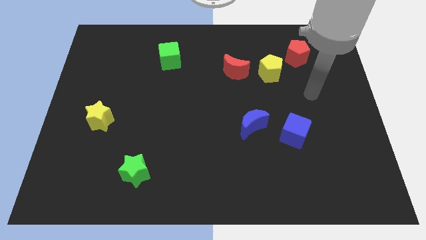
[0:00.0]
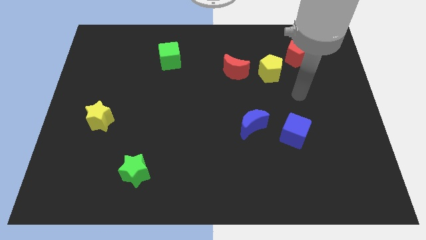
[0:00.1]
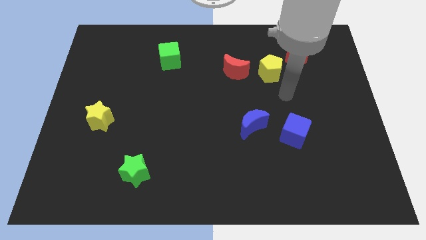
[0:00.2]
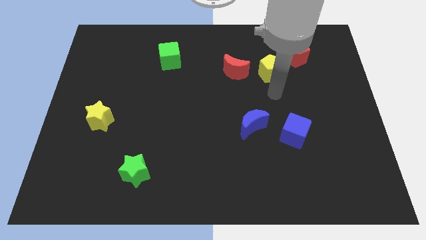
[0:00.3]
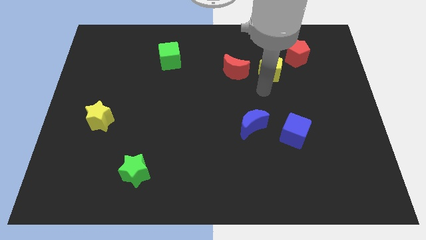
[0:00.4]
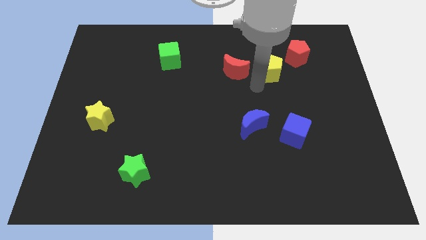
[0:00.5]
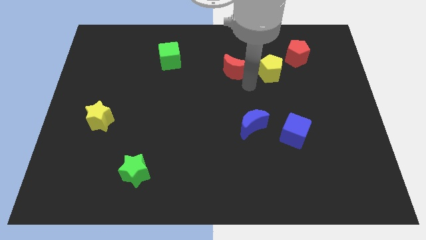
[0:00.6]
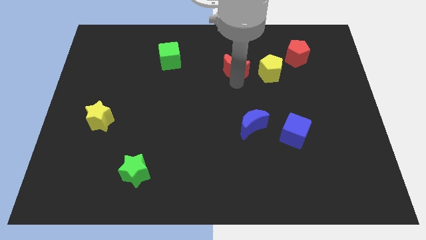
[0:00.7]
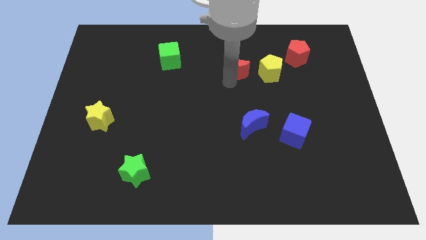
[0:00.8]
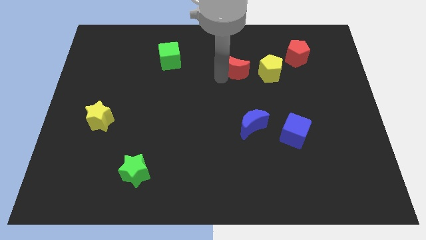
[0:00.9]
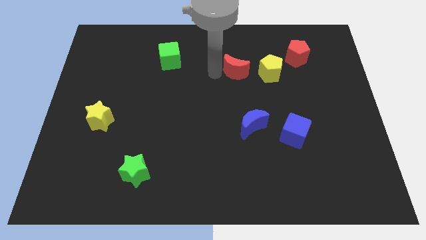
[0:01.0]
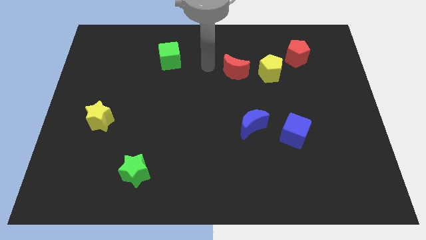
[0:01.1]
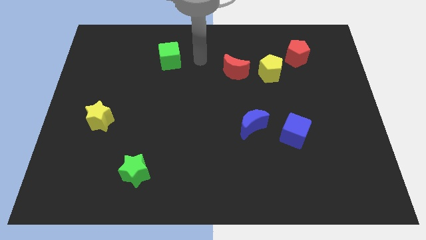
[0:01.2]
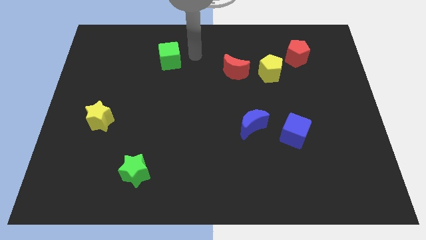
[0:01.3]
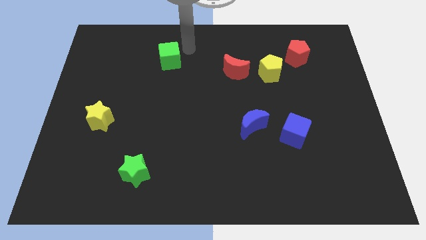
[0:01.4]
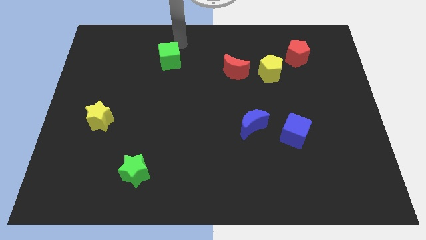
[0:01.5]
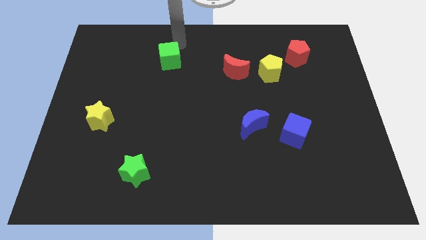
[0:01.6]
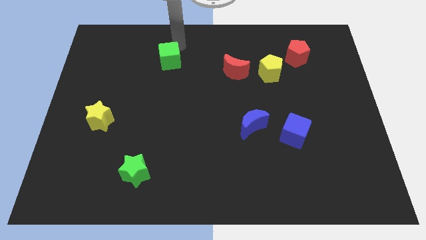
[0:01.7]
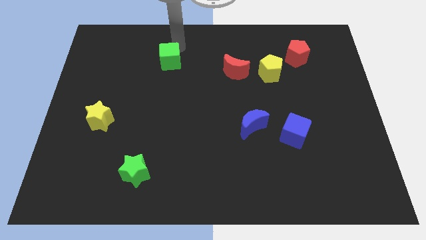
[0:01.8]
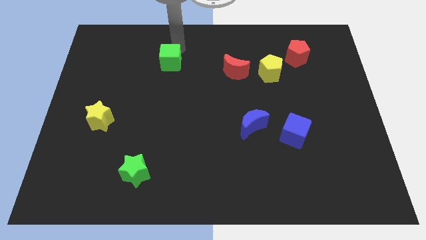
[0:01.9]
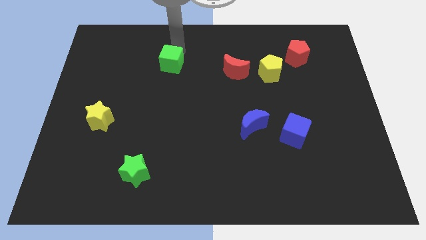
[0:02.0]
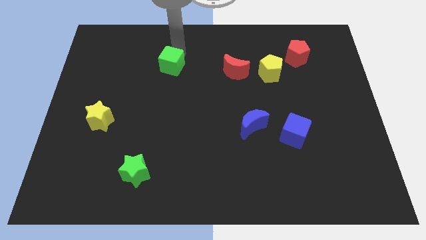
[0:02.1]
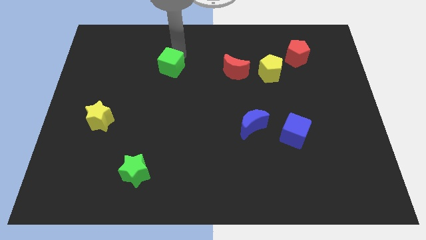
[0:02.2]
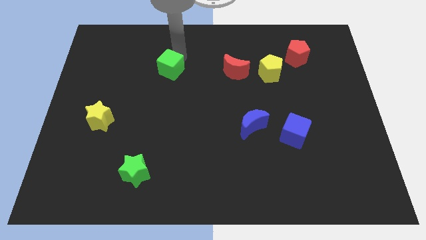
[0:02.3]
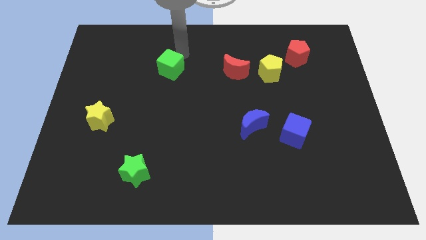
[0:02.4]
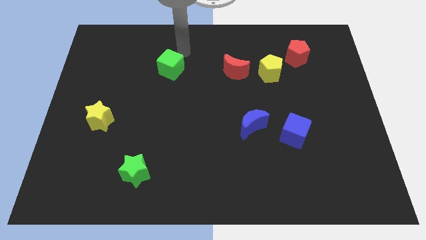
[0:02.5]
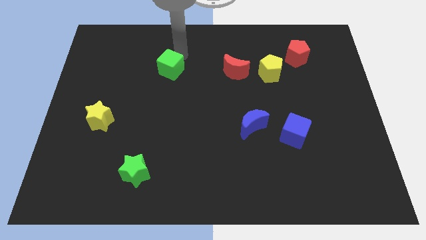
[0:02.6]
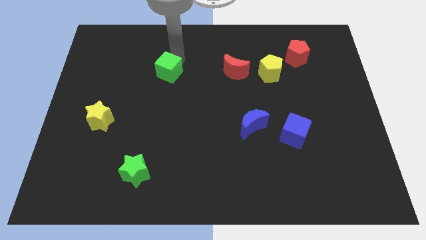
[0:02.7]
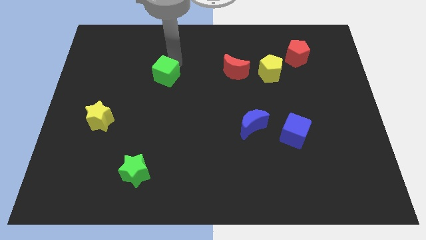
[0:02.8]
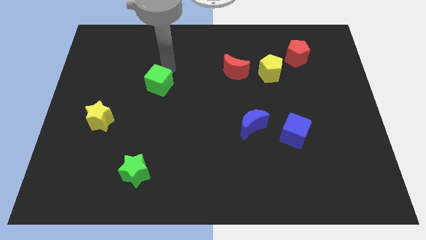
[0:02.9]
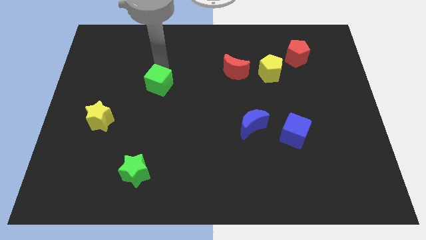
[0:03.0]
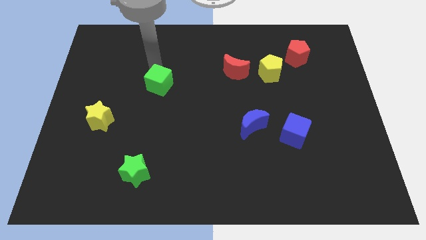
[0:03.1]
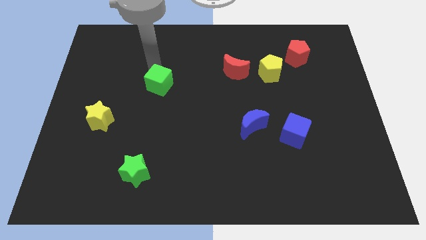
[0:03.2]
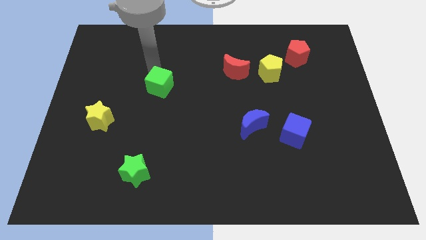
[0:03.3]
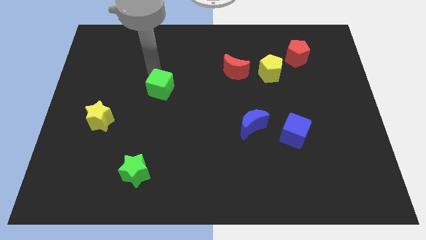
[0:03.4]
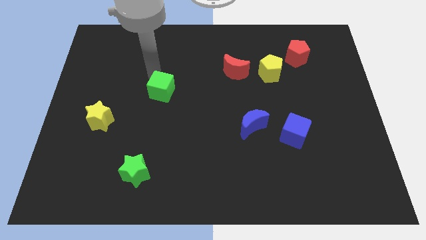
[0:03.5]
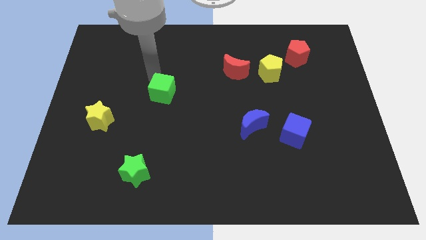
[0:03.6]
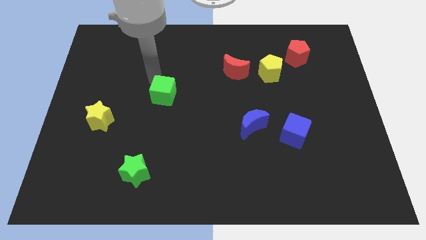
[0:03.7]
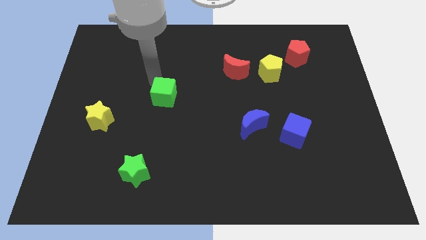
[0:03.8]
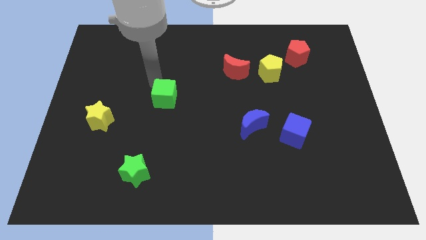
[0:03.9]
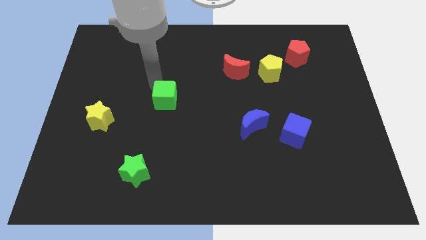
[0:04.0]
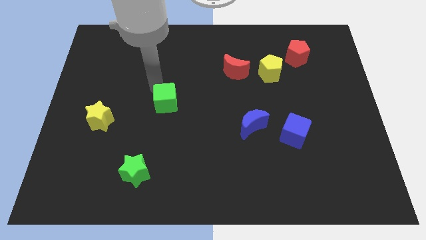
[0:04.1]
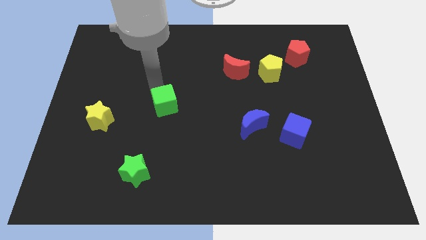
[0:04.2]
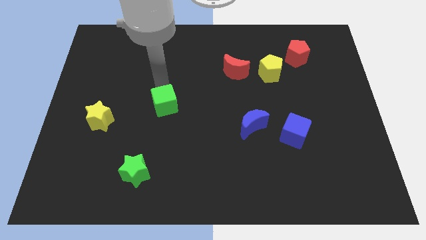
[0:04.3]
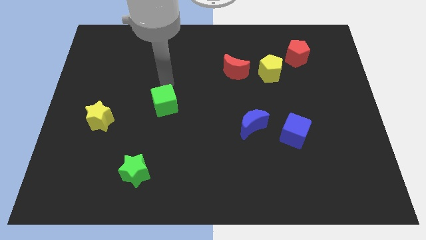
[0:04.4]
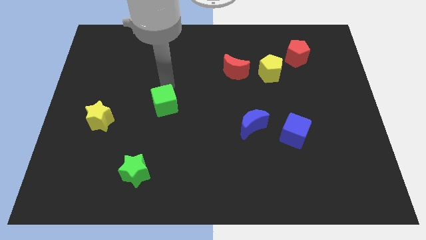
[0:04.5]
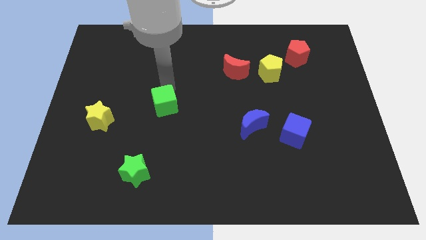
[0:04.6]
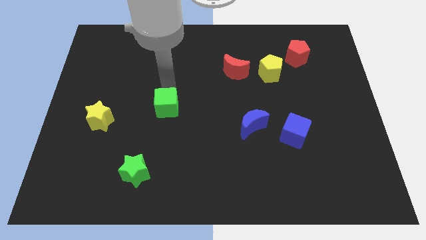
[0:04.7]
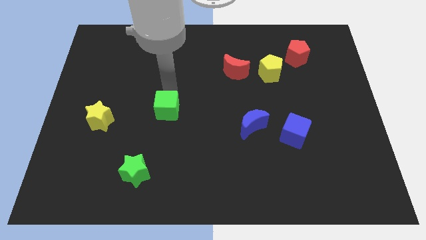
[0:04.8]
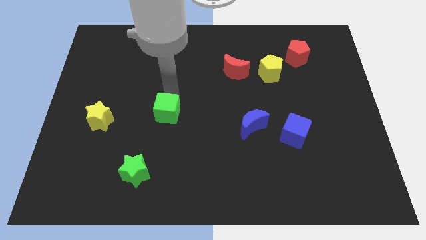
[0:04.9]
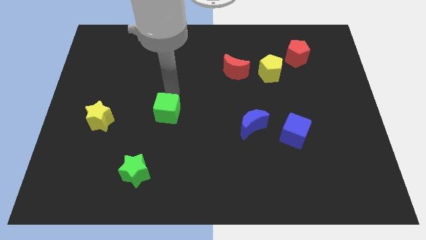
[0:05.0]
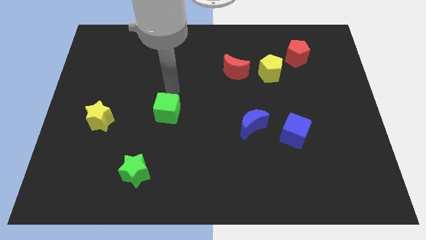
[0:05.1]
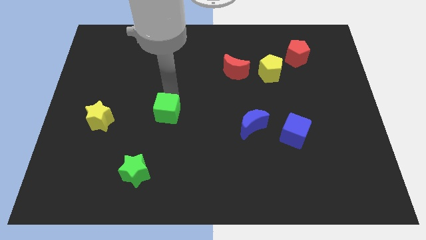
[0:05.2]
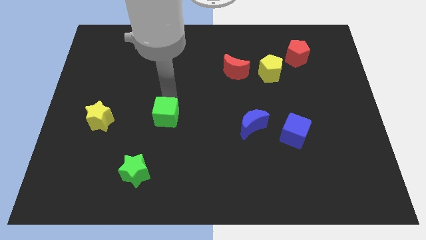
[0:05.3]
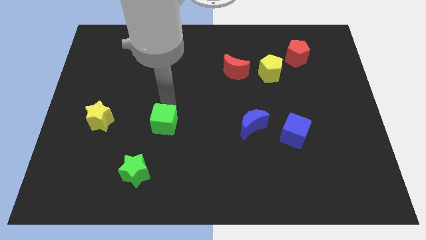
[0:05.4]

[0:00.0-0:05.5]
slide the green cube downwards

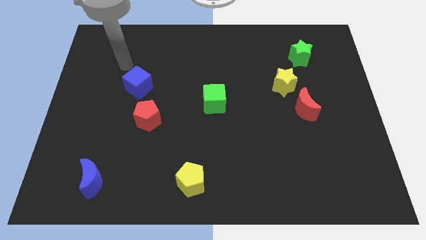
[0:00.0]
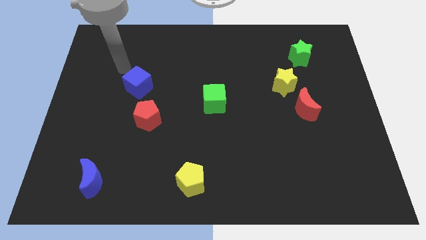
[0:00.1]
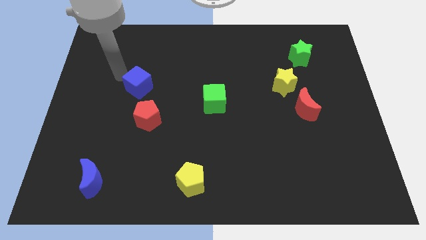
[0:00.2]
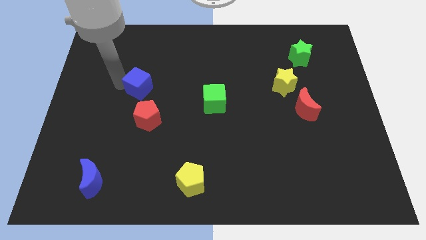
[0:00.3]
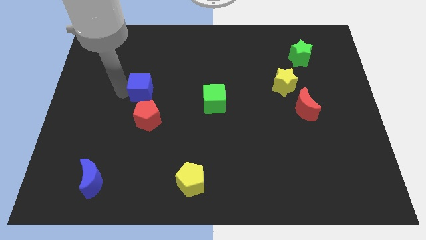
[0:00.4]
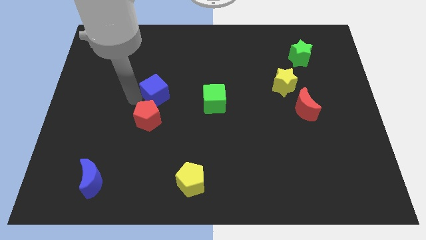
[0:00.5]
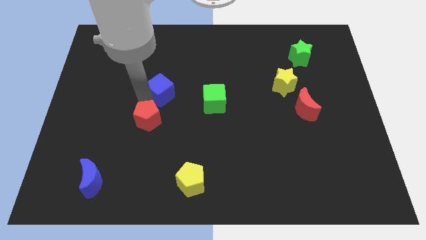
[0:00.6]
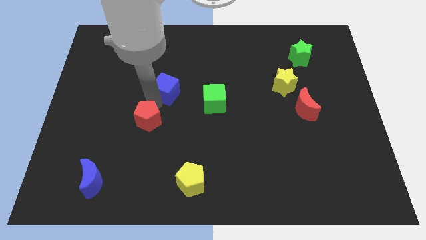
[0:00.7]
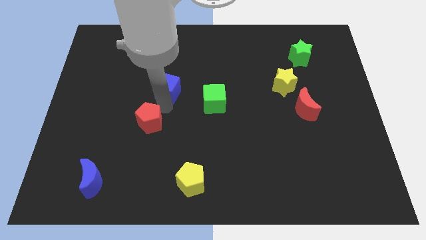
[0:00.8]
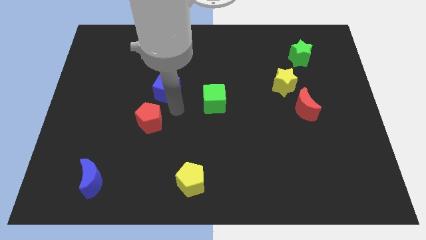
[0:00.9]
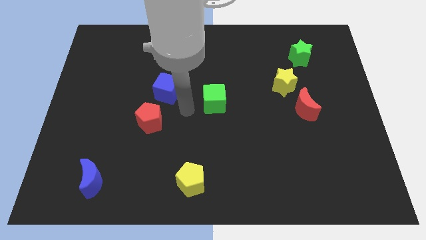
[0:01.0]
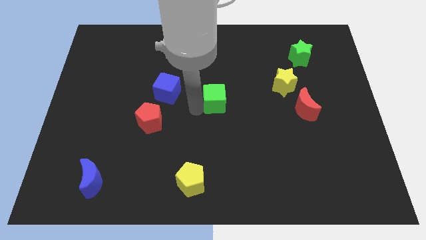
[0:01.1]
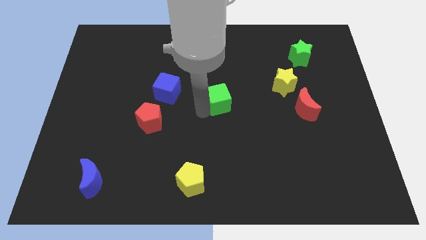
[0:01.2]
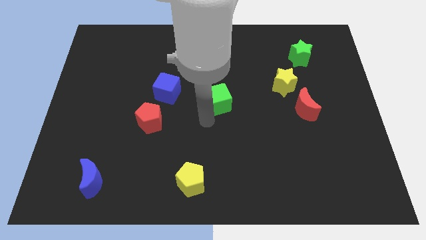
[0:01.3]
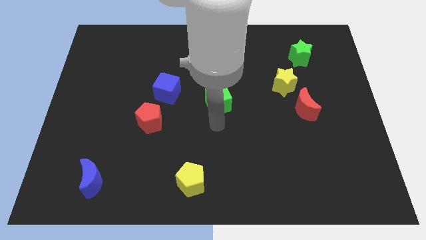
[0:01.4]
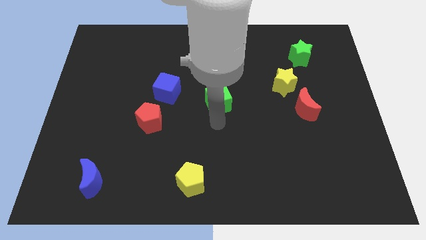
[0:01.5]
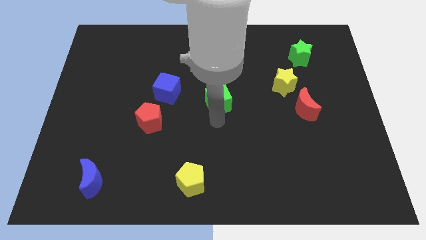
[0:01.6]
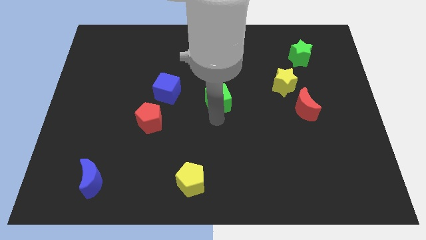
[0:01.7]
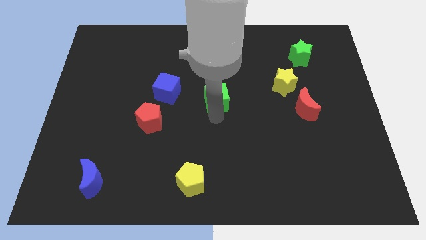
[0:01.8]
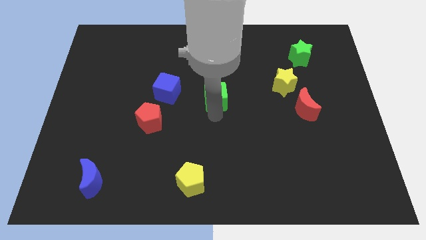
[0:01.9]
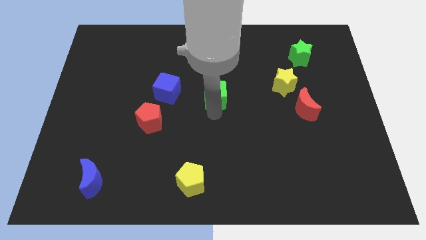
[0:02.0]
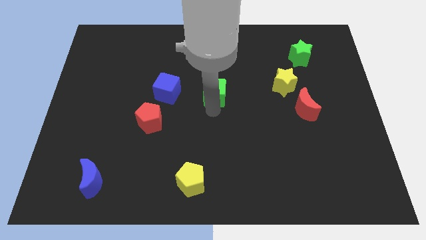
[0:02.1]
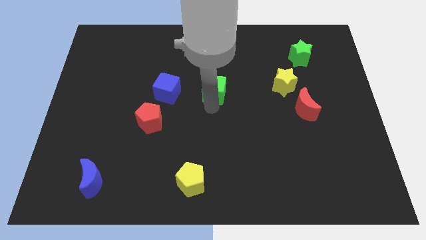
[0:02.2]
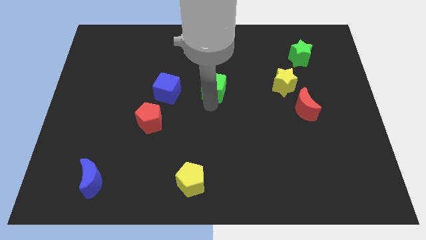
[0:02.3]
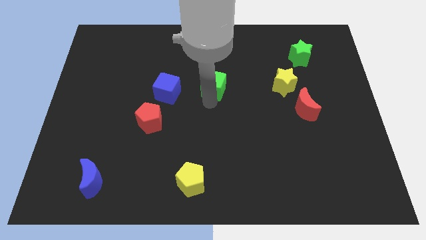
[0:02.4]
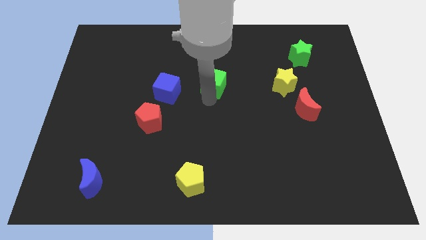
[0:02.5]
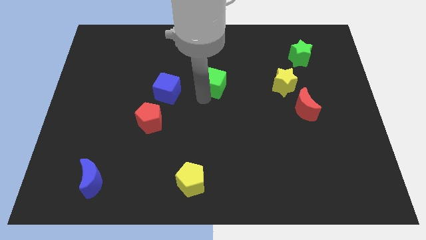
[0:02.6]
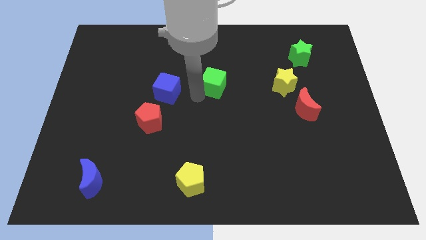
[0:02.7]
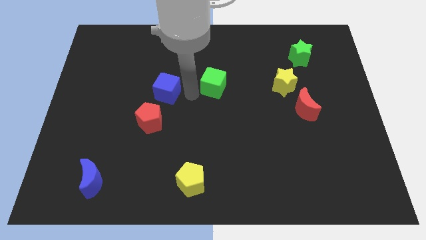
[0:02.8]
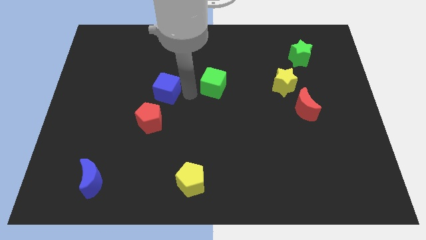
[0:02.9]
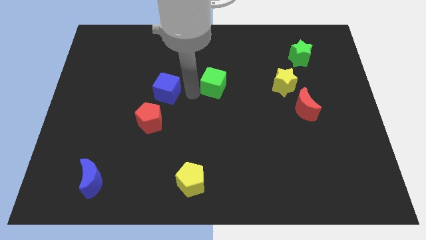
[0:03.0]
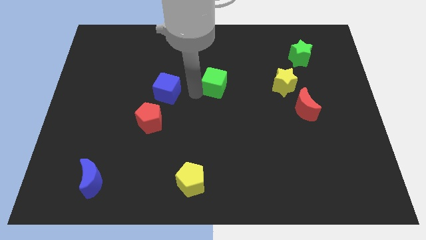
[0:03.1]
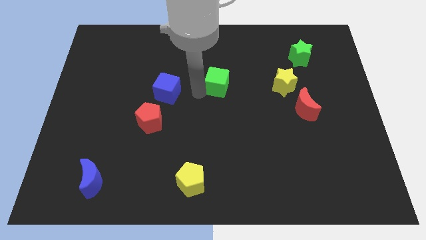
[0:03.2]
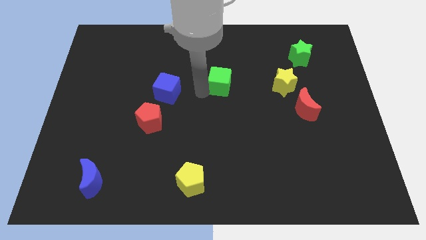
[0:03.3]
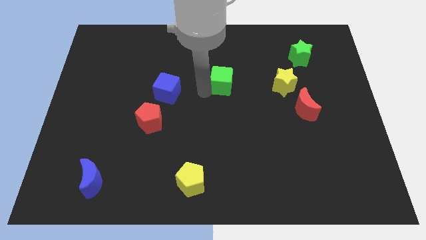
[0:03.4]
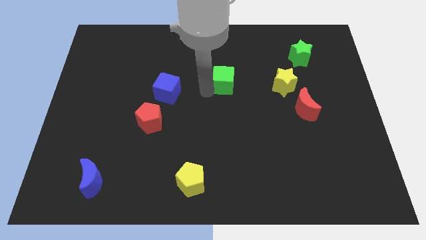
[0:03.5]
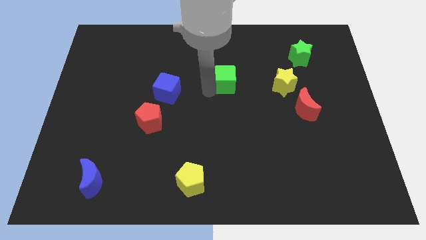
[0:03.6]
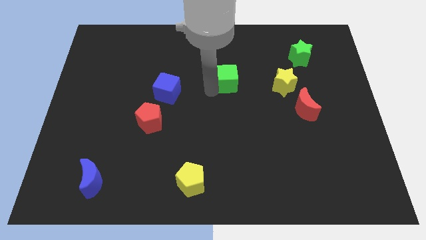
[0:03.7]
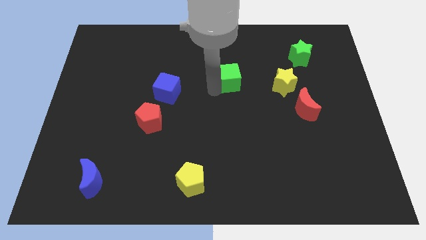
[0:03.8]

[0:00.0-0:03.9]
slide the green cube somewhat upwards and then right
